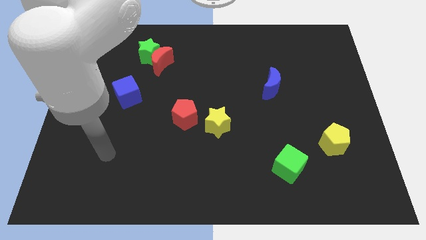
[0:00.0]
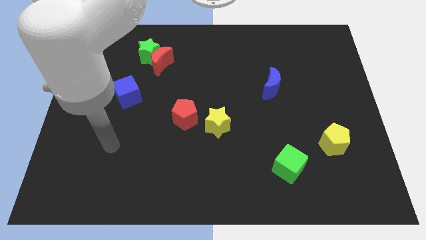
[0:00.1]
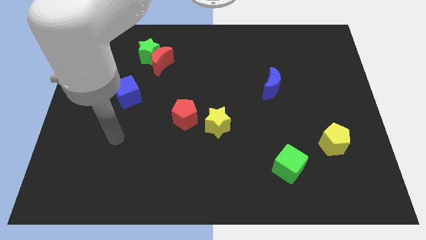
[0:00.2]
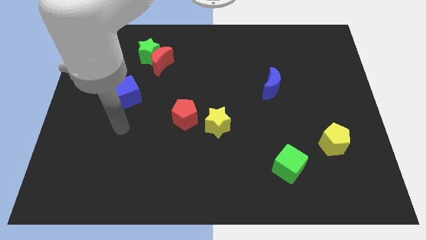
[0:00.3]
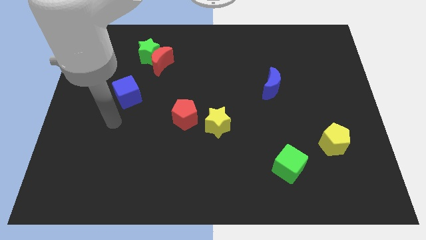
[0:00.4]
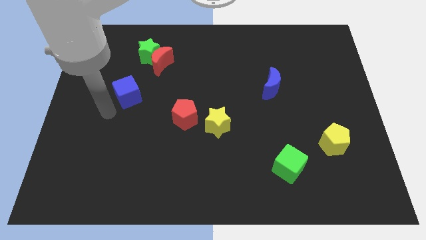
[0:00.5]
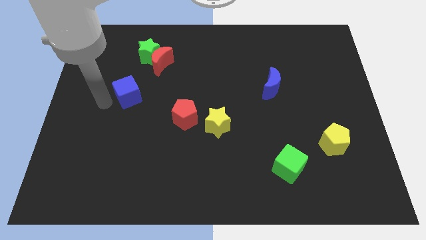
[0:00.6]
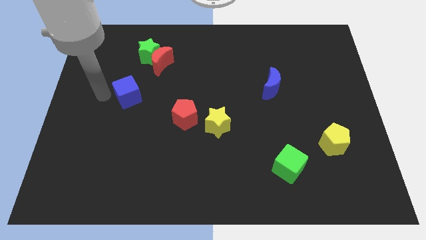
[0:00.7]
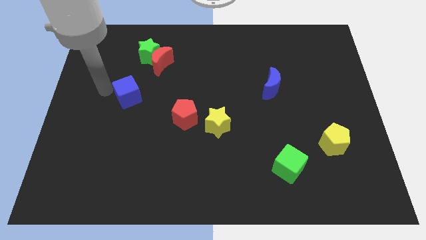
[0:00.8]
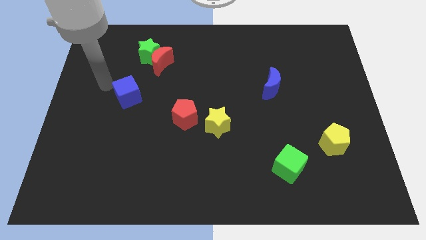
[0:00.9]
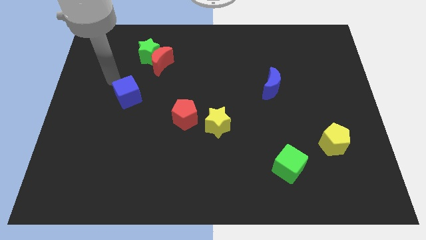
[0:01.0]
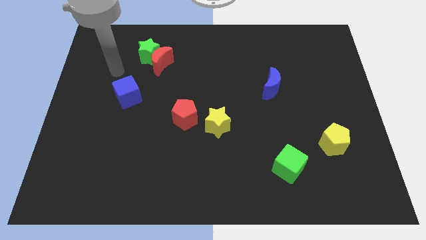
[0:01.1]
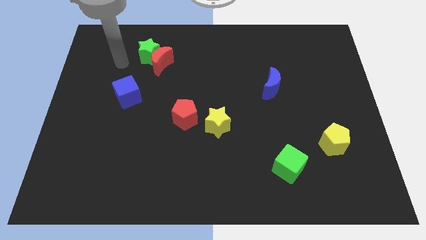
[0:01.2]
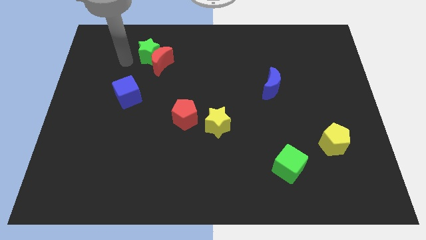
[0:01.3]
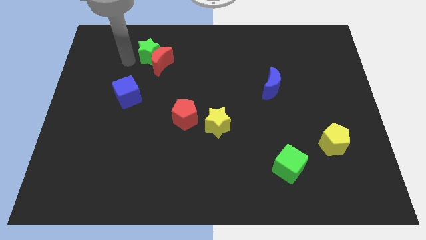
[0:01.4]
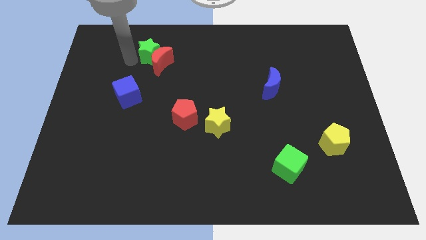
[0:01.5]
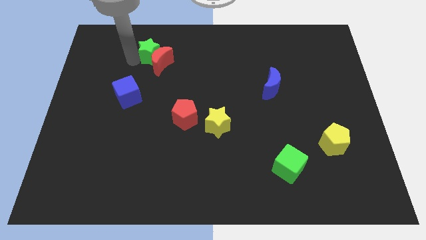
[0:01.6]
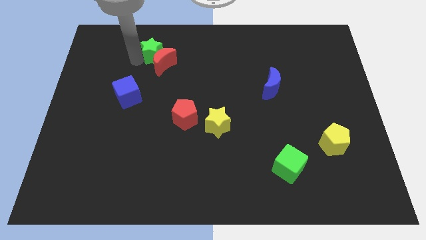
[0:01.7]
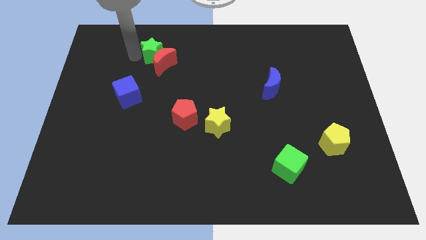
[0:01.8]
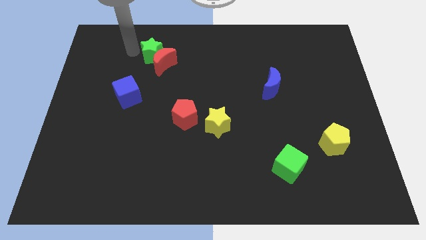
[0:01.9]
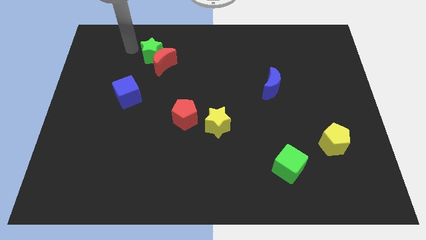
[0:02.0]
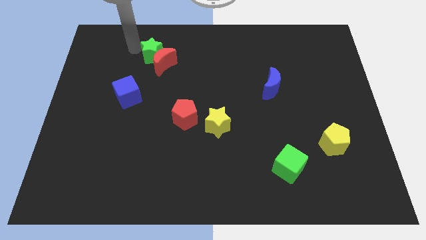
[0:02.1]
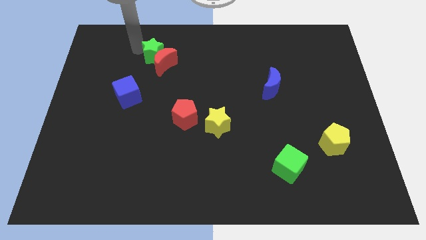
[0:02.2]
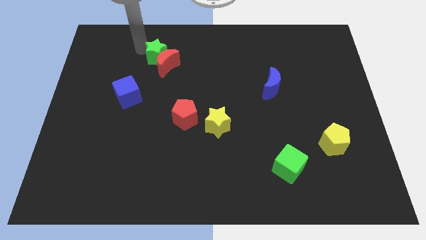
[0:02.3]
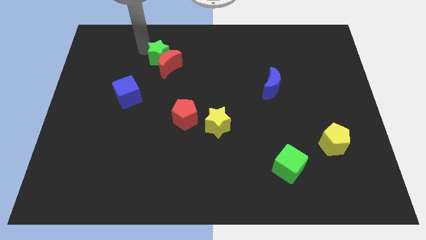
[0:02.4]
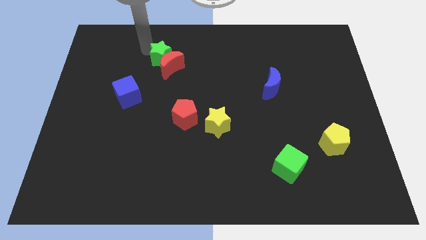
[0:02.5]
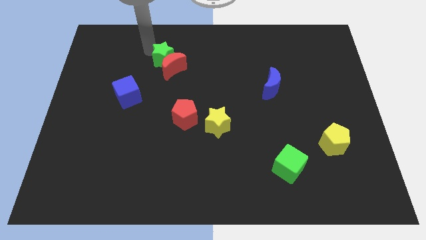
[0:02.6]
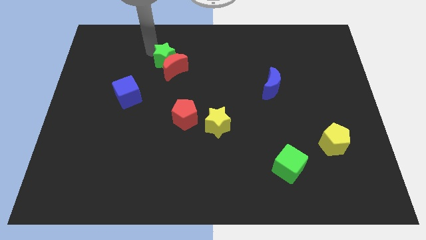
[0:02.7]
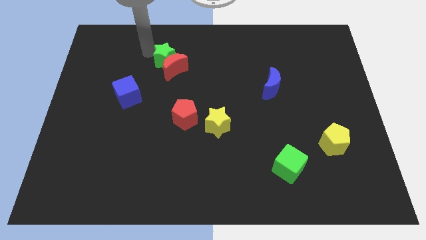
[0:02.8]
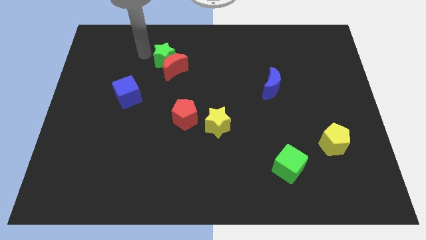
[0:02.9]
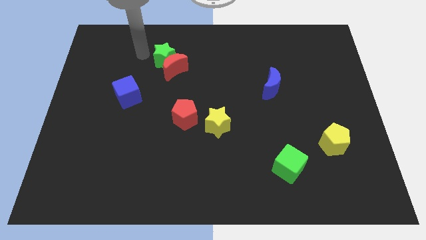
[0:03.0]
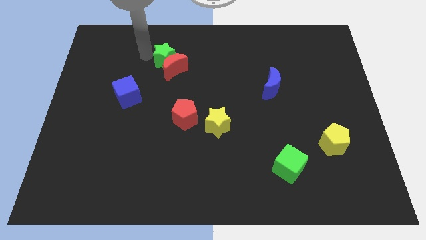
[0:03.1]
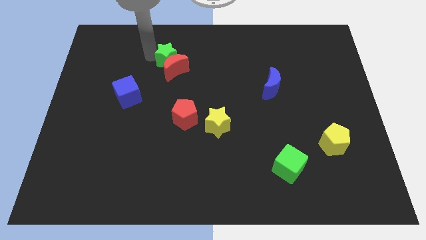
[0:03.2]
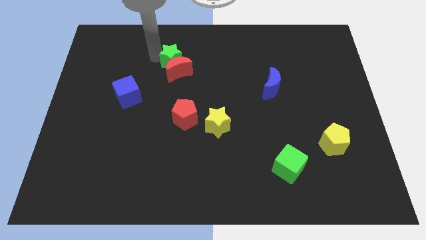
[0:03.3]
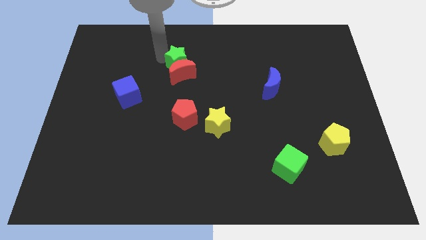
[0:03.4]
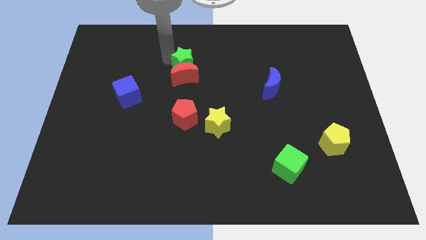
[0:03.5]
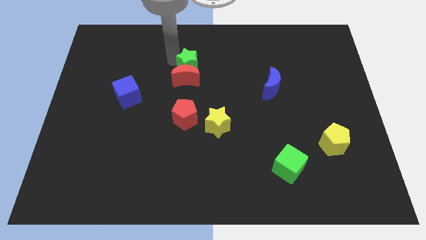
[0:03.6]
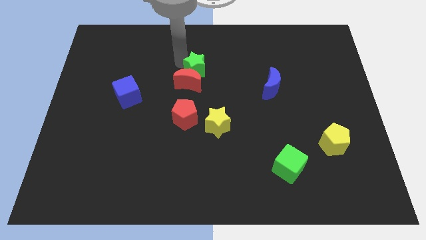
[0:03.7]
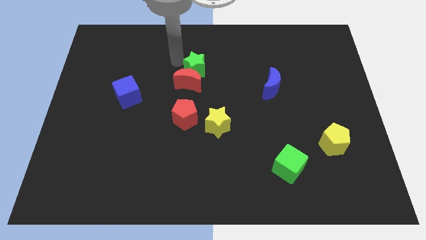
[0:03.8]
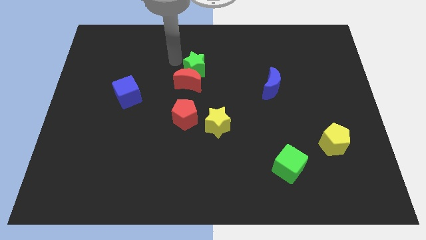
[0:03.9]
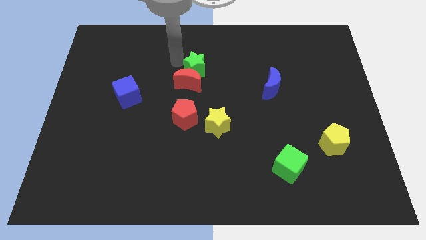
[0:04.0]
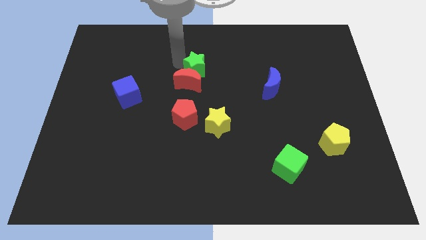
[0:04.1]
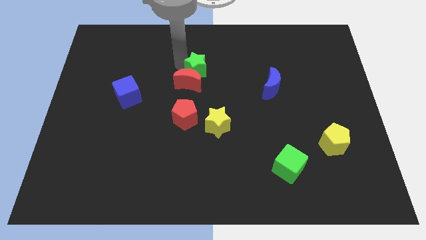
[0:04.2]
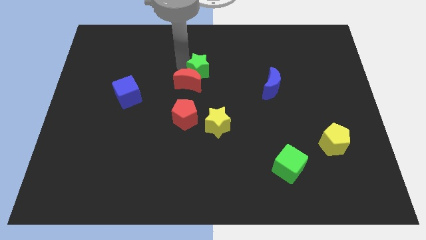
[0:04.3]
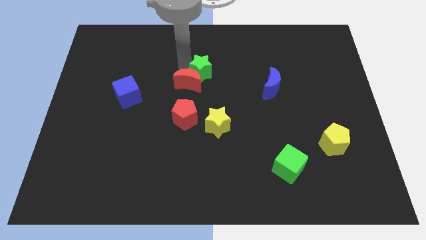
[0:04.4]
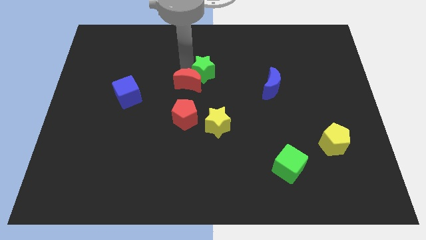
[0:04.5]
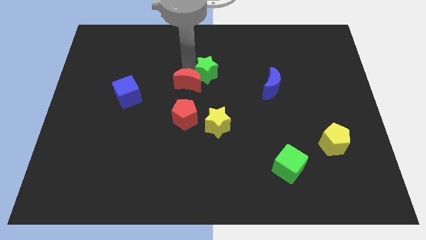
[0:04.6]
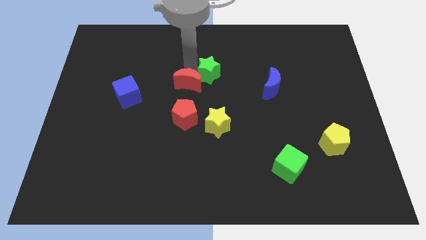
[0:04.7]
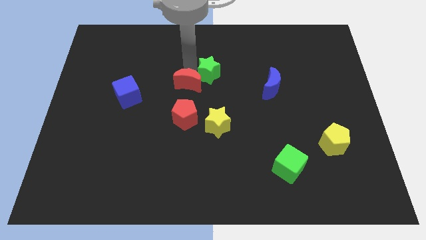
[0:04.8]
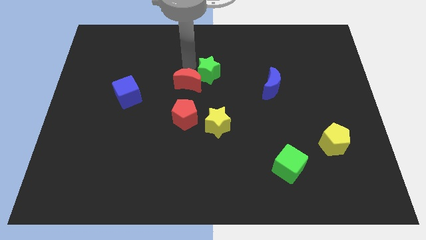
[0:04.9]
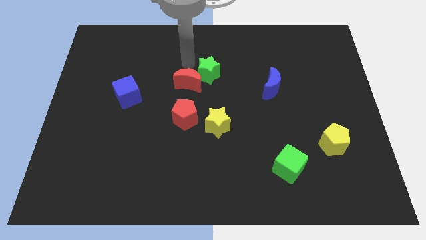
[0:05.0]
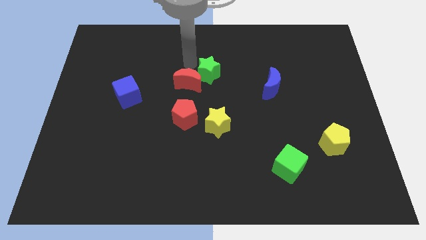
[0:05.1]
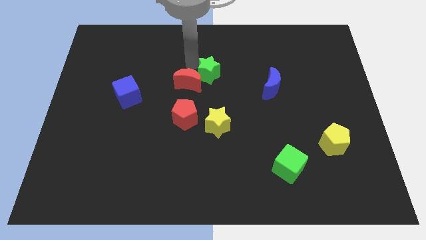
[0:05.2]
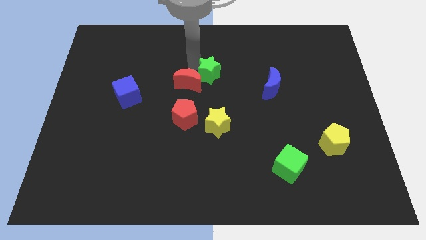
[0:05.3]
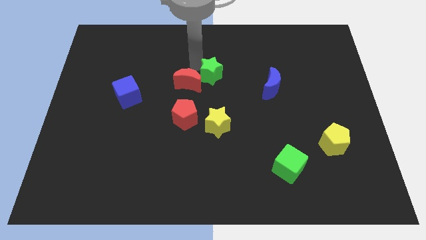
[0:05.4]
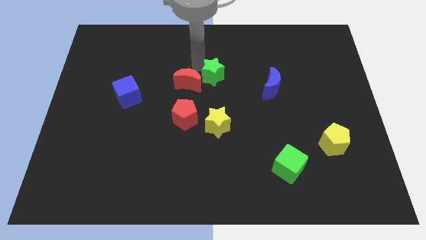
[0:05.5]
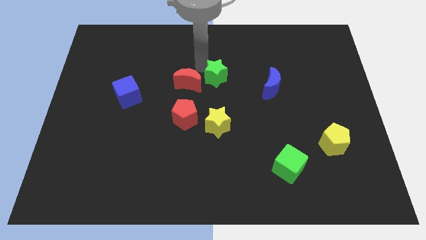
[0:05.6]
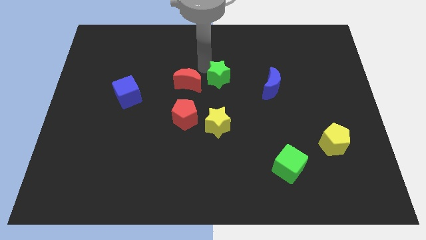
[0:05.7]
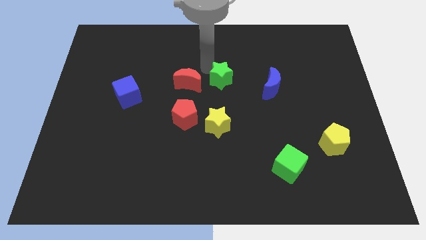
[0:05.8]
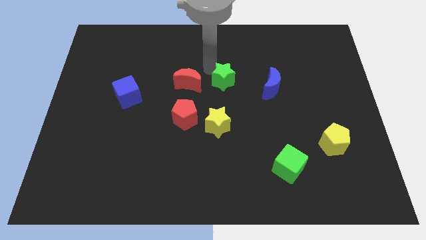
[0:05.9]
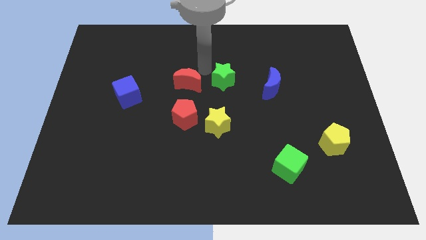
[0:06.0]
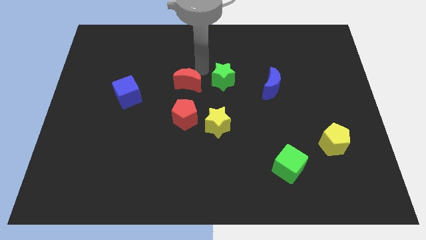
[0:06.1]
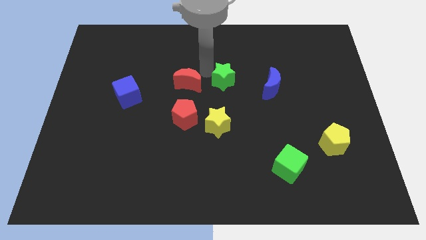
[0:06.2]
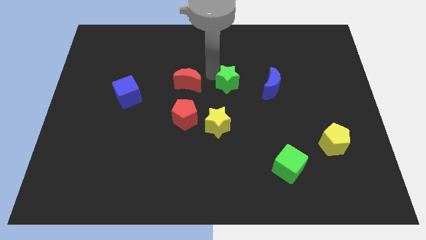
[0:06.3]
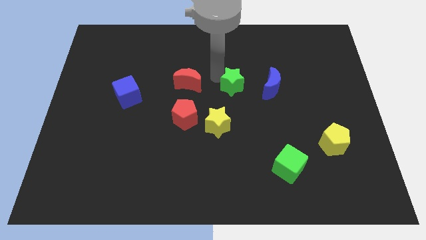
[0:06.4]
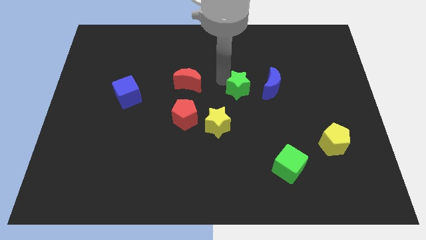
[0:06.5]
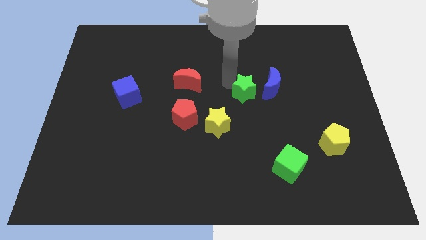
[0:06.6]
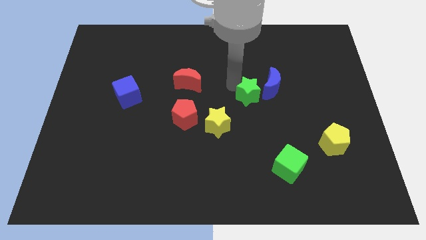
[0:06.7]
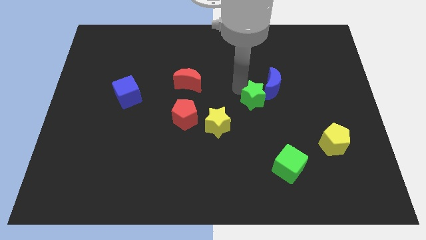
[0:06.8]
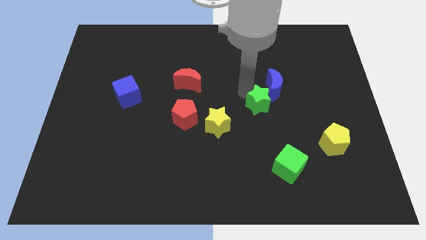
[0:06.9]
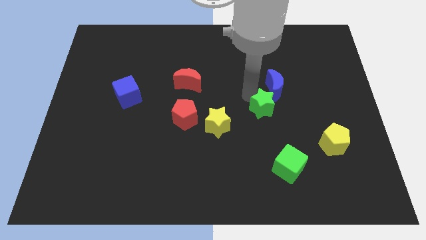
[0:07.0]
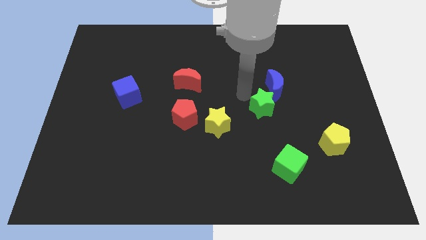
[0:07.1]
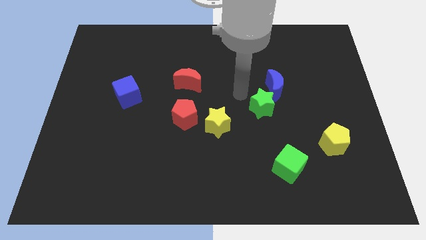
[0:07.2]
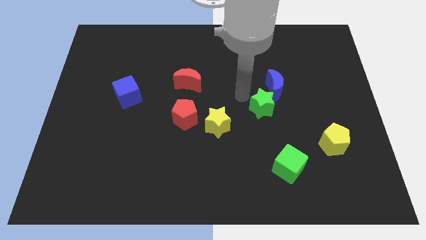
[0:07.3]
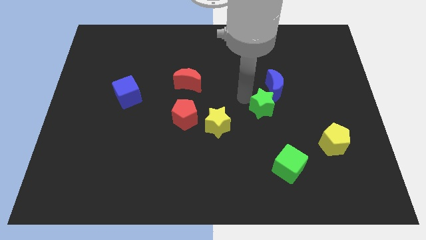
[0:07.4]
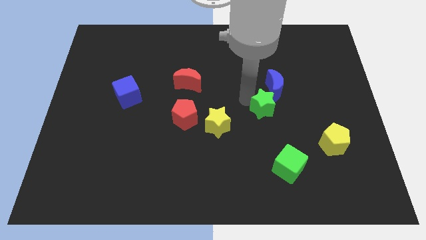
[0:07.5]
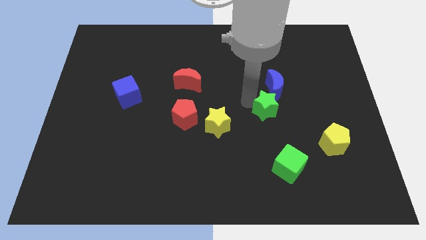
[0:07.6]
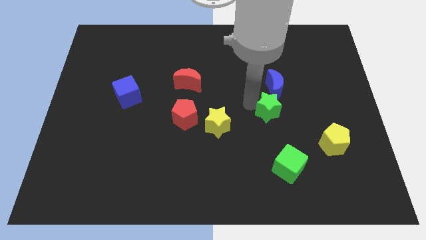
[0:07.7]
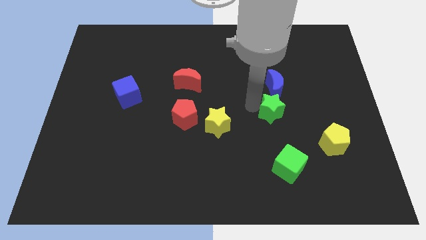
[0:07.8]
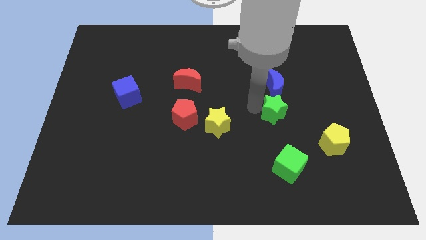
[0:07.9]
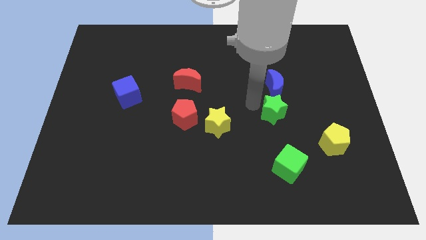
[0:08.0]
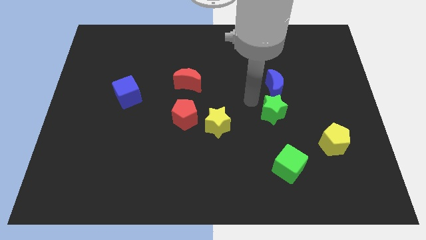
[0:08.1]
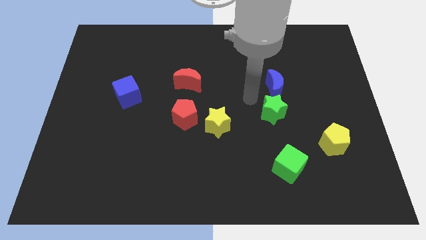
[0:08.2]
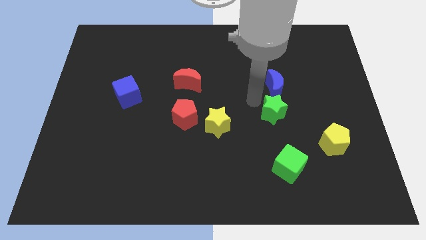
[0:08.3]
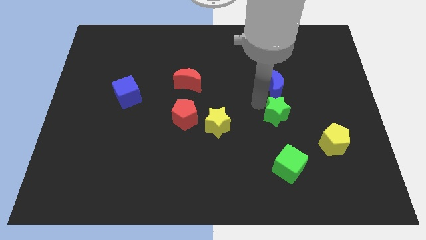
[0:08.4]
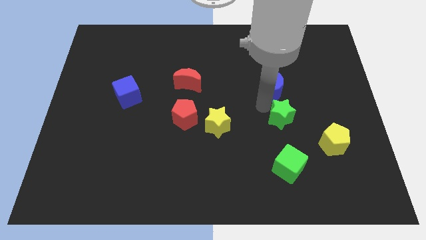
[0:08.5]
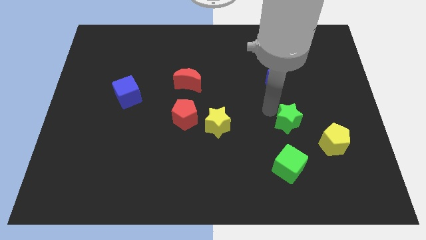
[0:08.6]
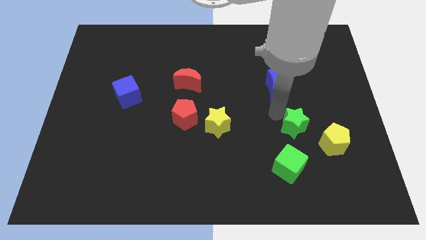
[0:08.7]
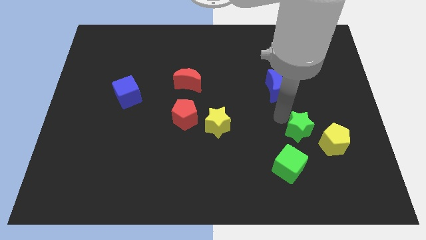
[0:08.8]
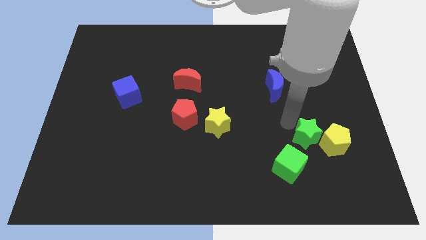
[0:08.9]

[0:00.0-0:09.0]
slide the green star next to the yellow pentagon
